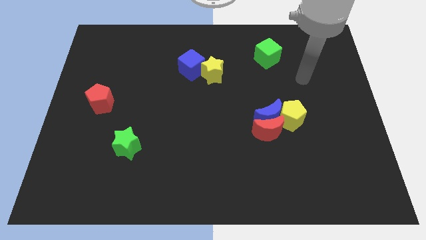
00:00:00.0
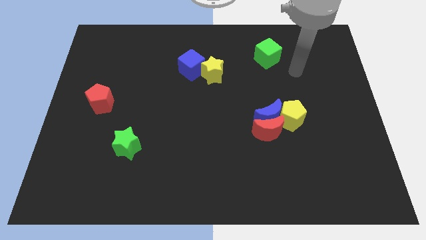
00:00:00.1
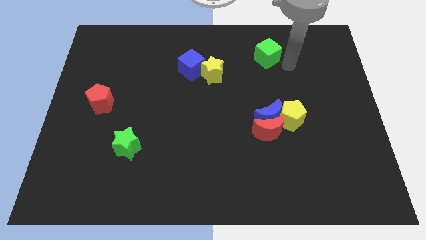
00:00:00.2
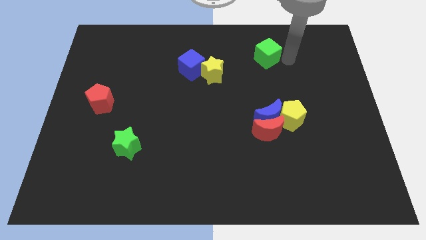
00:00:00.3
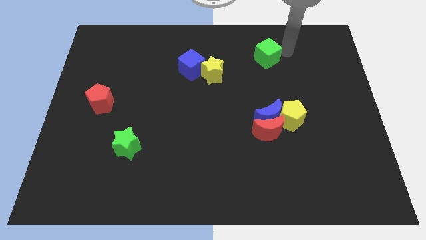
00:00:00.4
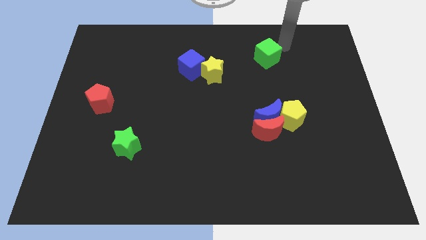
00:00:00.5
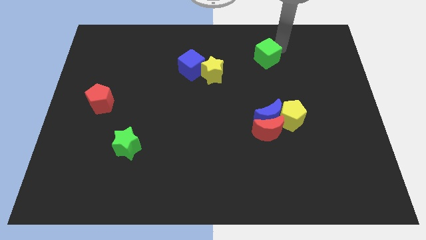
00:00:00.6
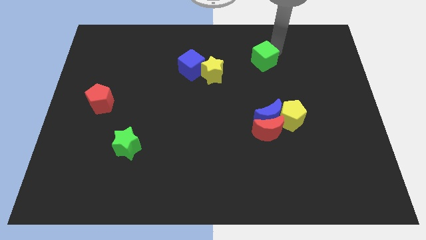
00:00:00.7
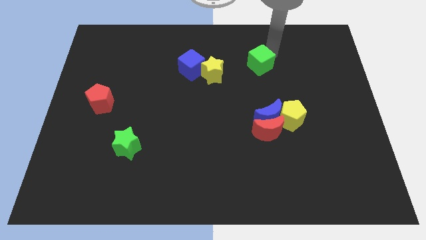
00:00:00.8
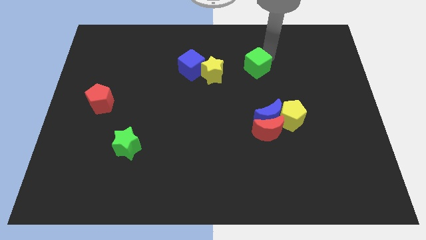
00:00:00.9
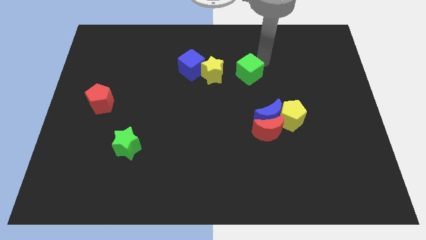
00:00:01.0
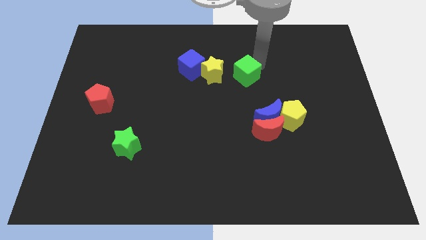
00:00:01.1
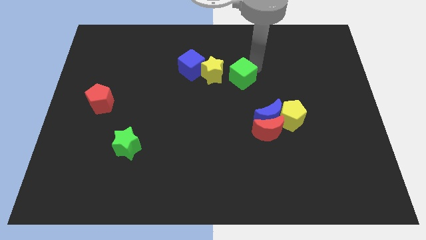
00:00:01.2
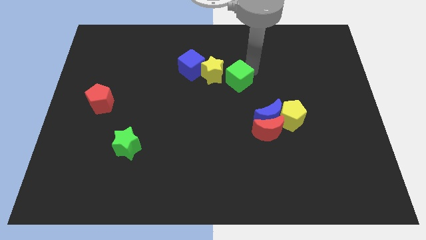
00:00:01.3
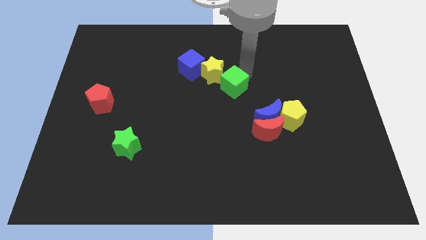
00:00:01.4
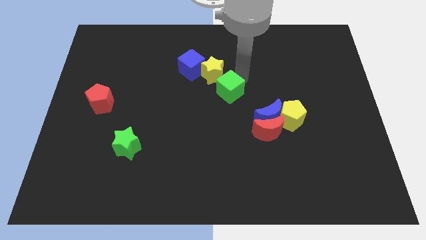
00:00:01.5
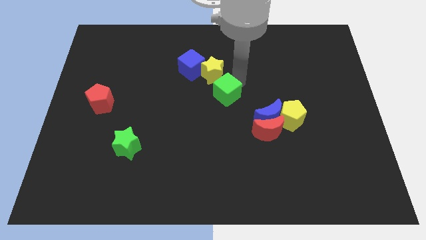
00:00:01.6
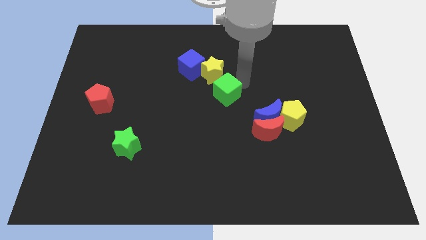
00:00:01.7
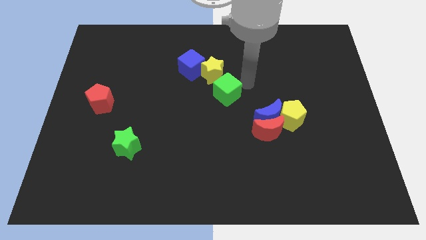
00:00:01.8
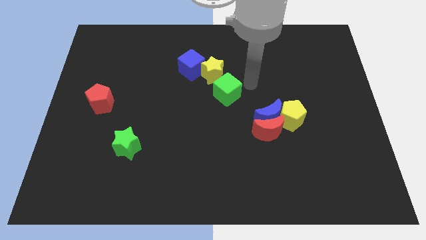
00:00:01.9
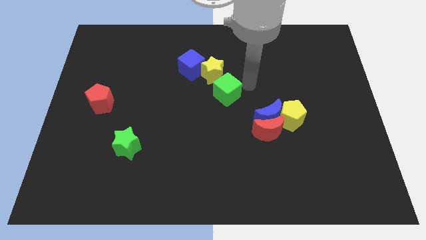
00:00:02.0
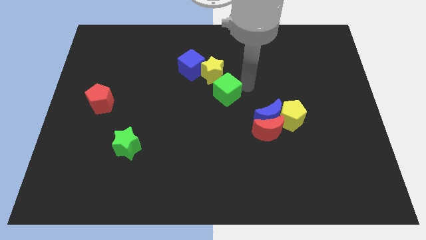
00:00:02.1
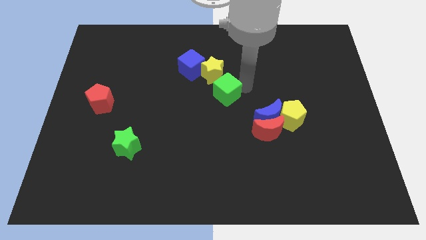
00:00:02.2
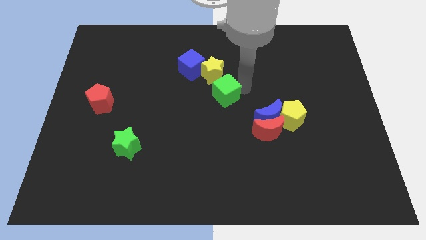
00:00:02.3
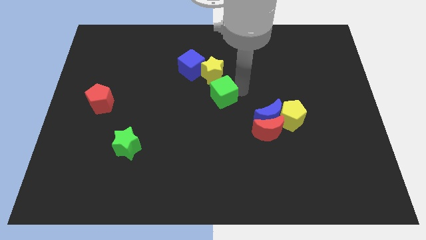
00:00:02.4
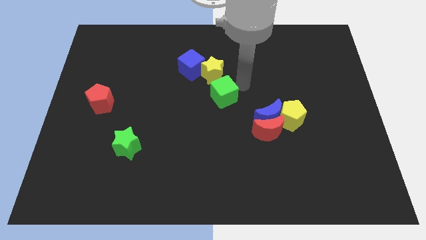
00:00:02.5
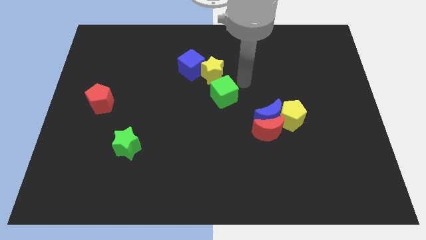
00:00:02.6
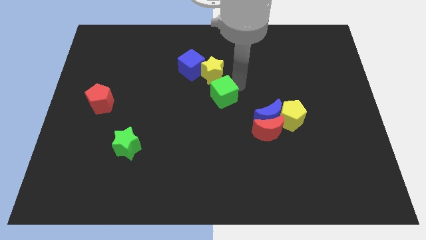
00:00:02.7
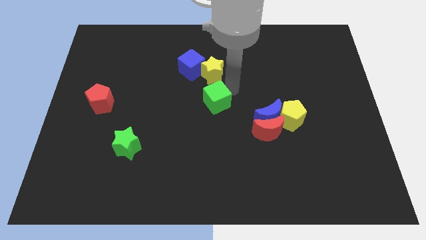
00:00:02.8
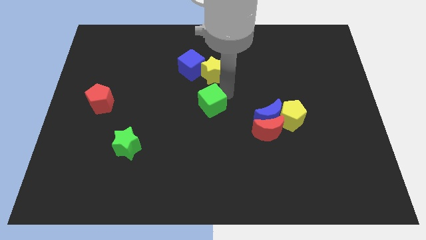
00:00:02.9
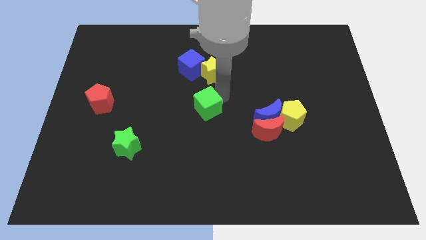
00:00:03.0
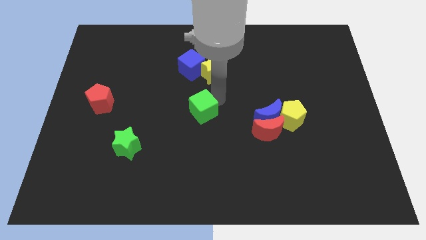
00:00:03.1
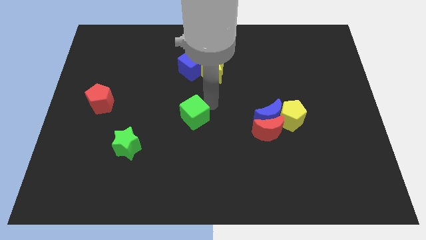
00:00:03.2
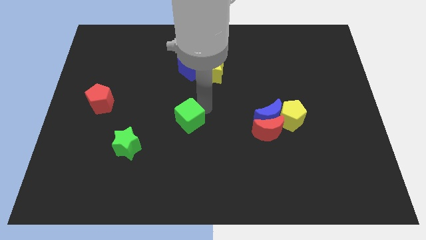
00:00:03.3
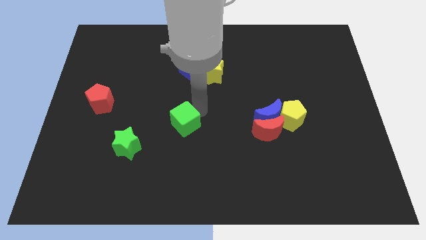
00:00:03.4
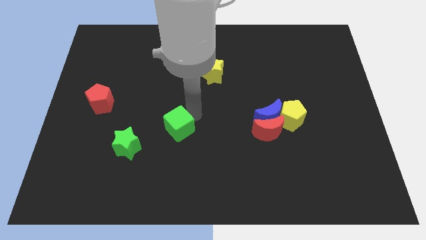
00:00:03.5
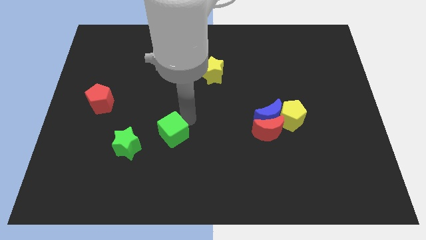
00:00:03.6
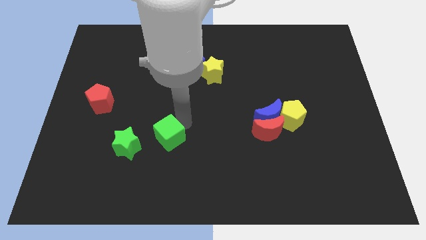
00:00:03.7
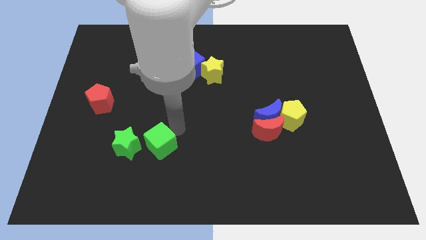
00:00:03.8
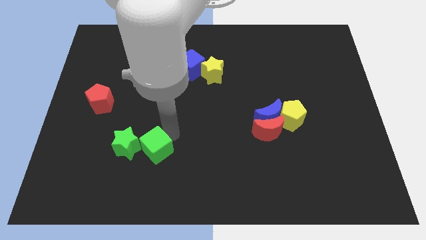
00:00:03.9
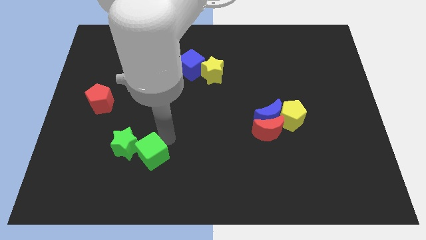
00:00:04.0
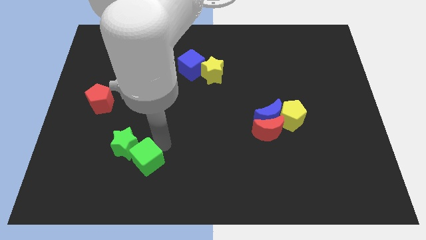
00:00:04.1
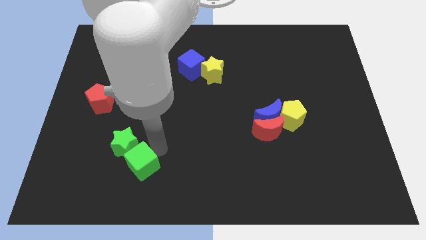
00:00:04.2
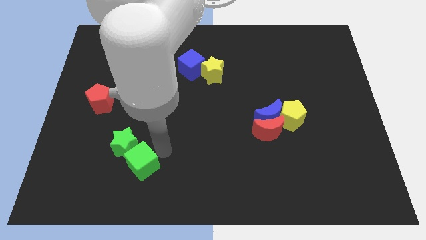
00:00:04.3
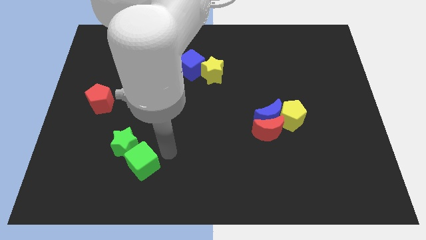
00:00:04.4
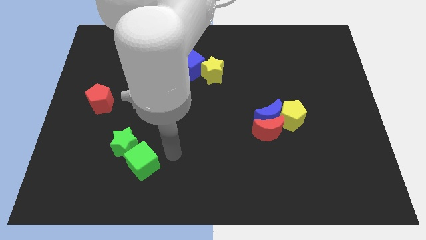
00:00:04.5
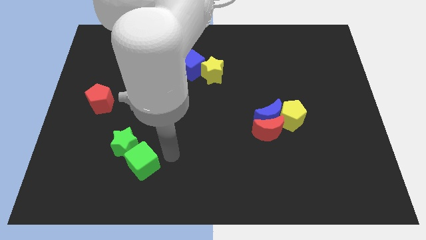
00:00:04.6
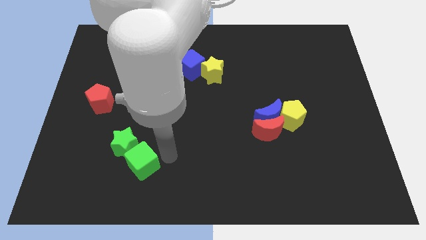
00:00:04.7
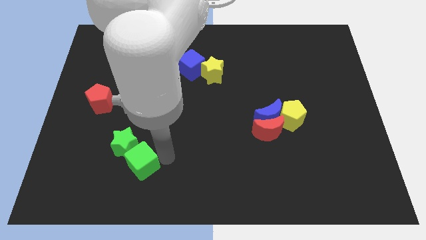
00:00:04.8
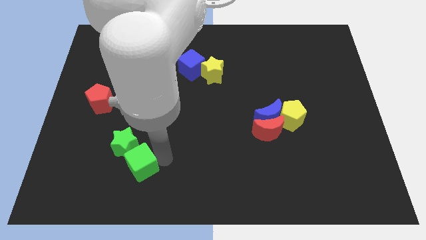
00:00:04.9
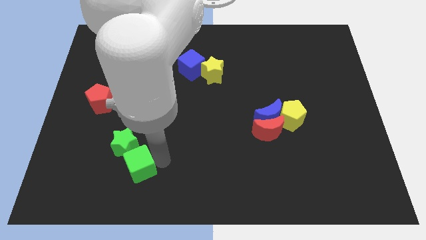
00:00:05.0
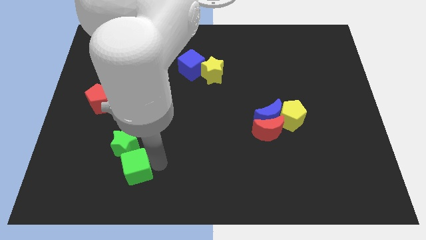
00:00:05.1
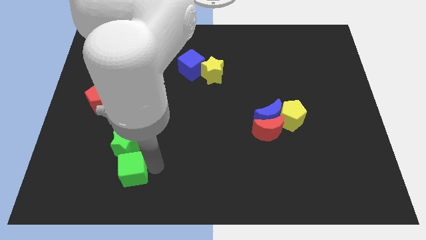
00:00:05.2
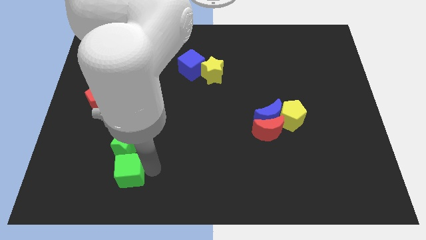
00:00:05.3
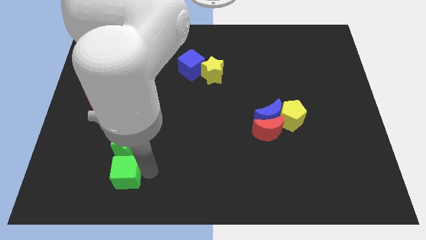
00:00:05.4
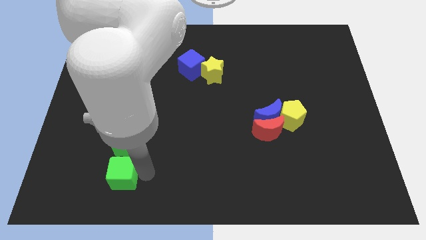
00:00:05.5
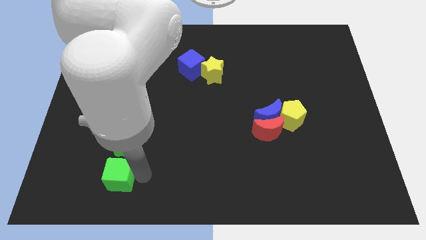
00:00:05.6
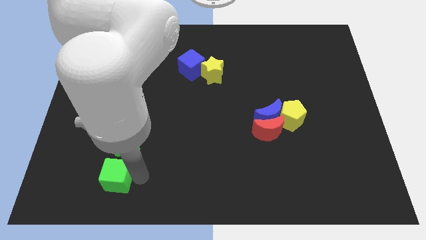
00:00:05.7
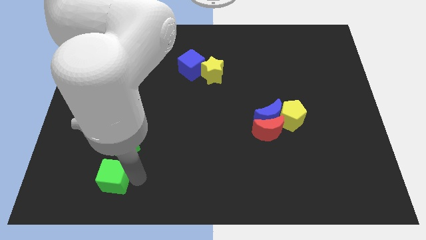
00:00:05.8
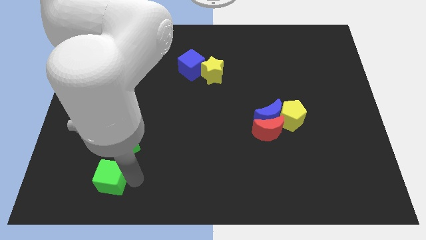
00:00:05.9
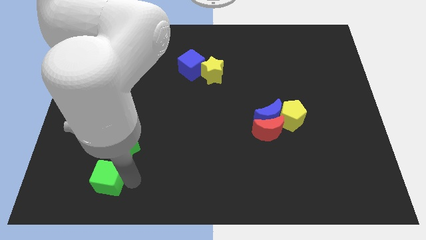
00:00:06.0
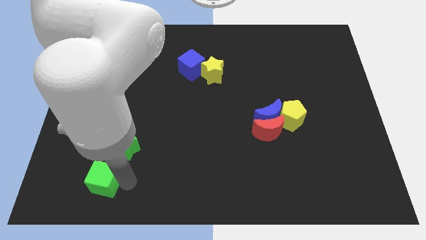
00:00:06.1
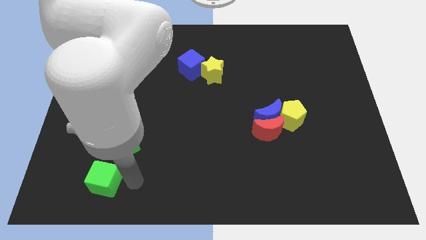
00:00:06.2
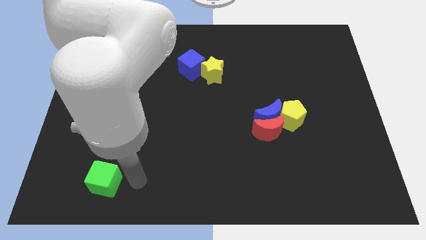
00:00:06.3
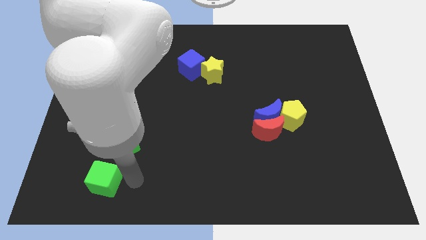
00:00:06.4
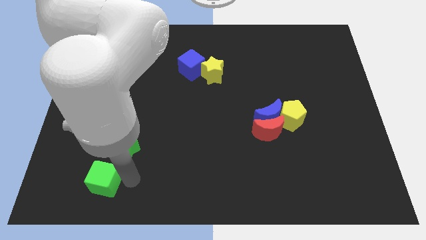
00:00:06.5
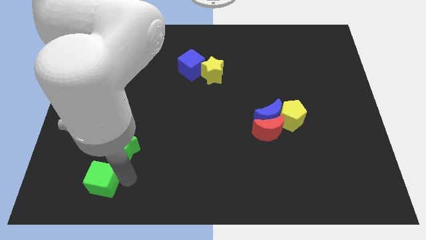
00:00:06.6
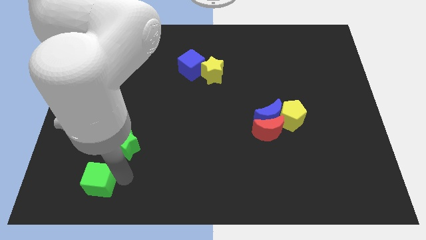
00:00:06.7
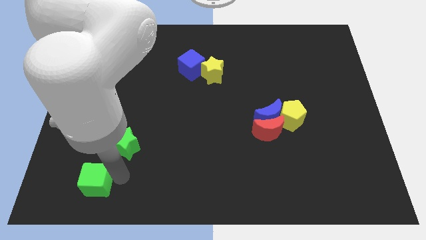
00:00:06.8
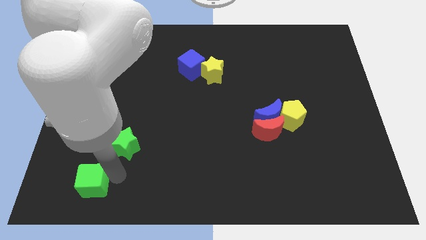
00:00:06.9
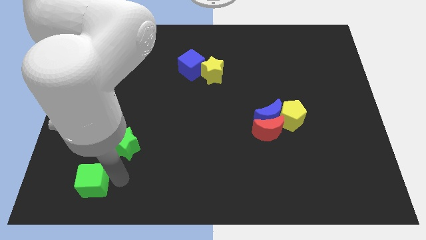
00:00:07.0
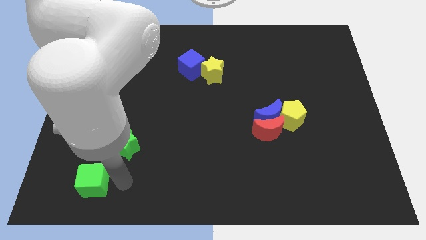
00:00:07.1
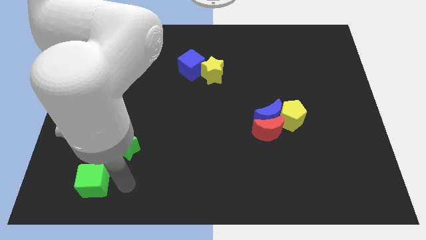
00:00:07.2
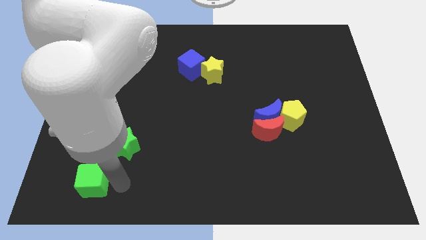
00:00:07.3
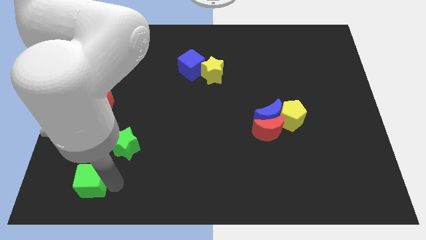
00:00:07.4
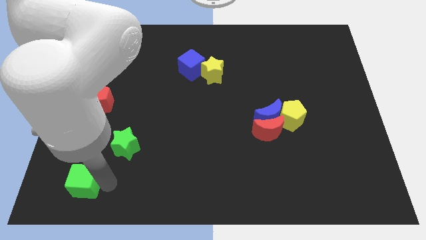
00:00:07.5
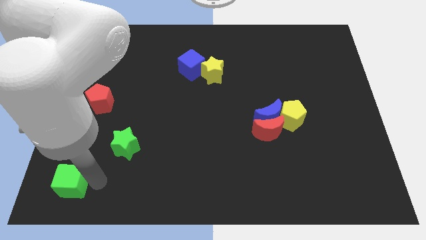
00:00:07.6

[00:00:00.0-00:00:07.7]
put the green cube to the bottom left corner
